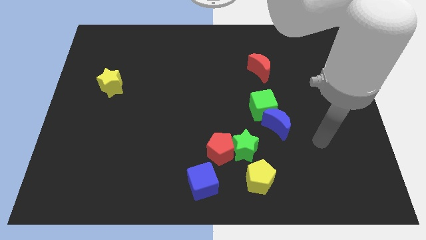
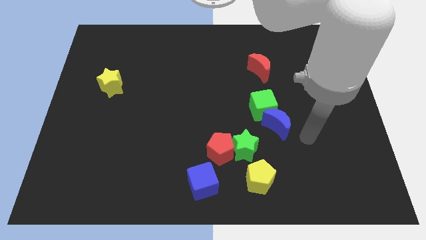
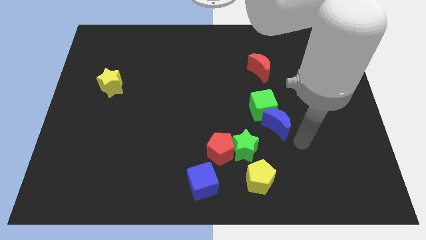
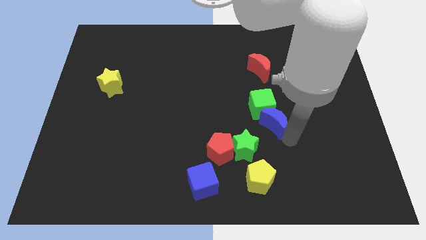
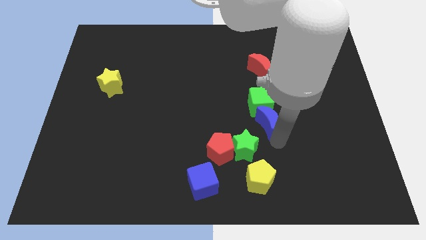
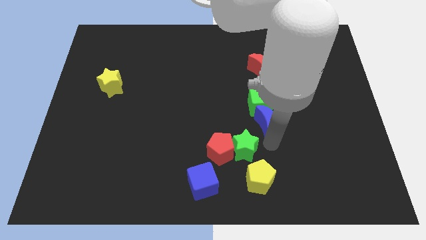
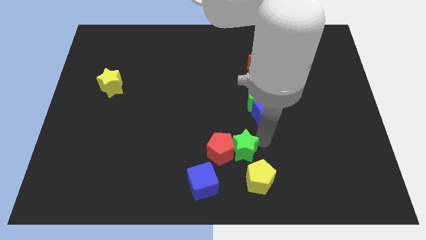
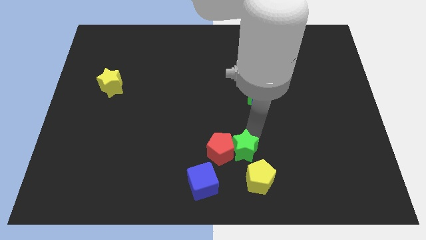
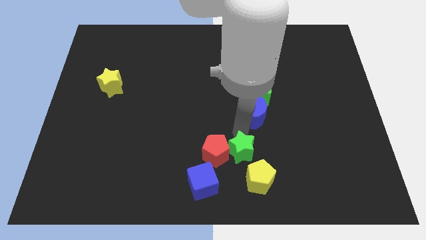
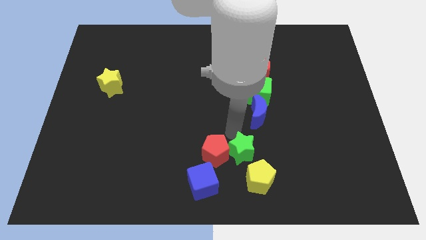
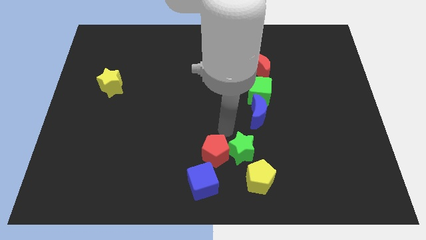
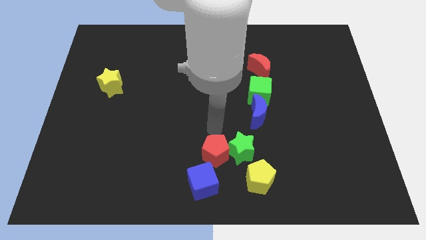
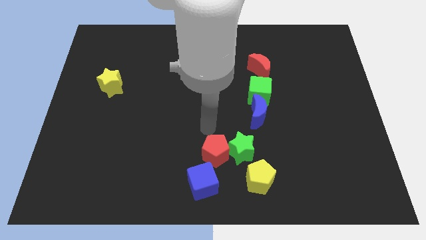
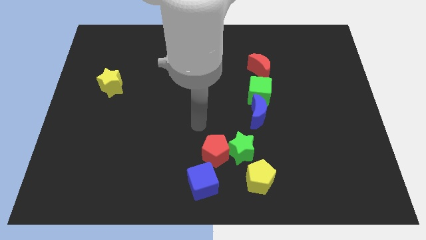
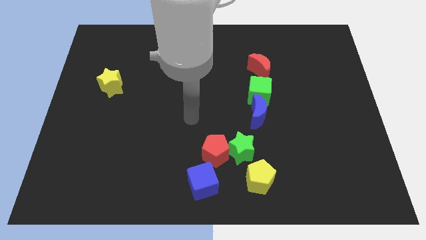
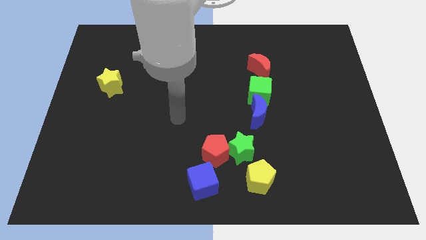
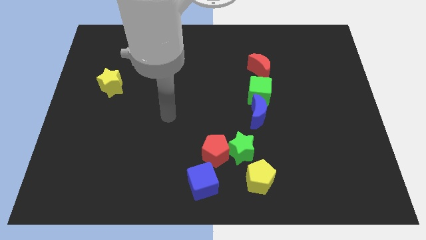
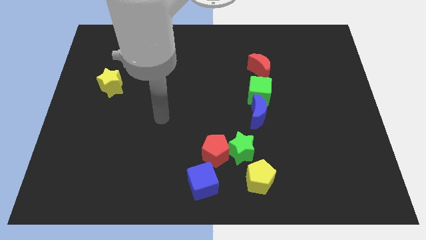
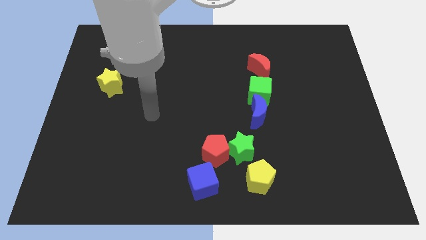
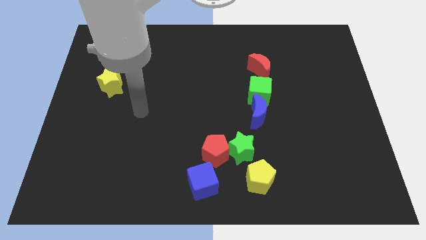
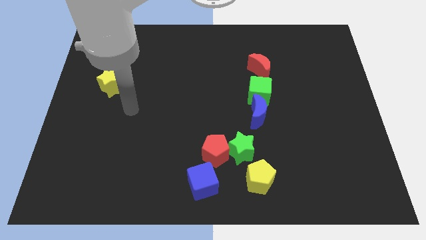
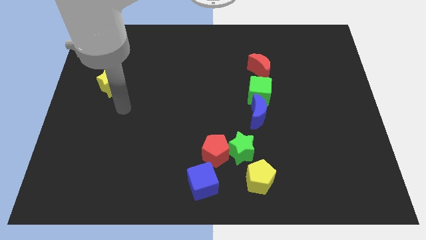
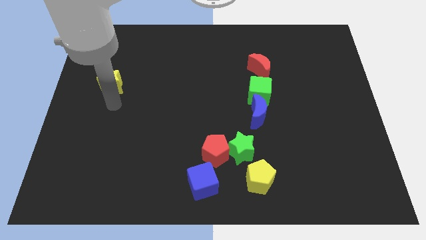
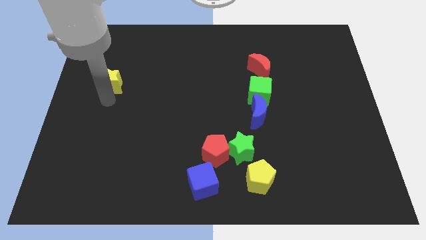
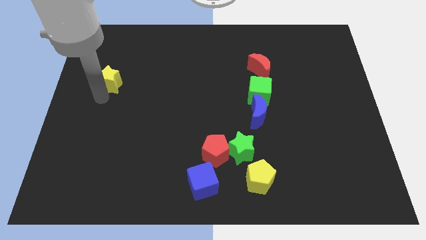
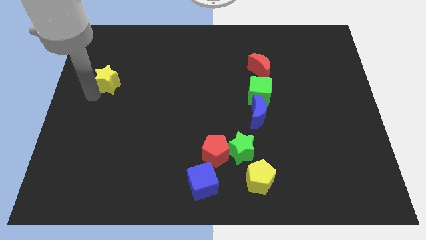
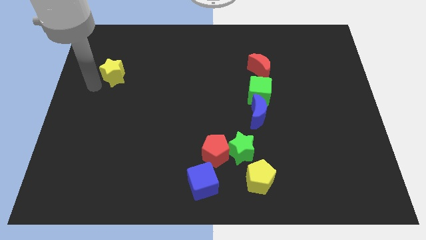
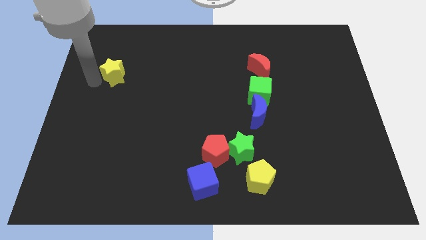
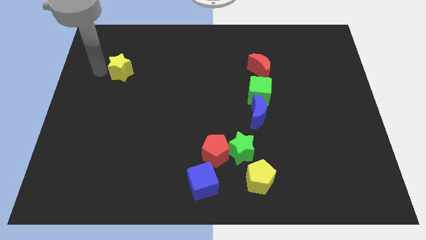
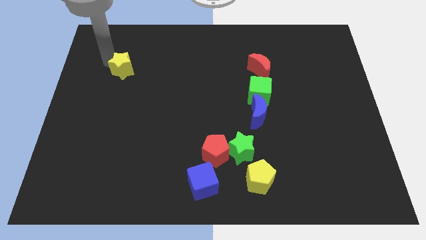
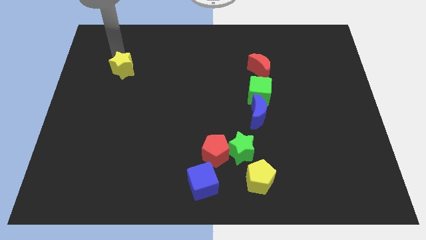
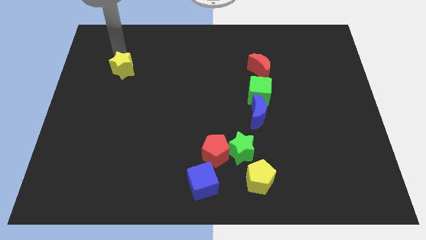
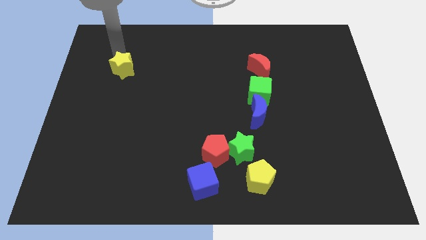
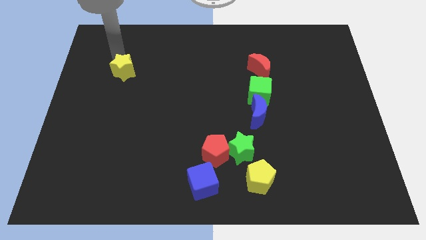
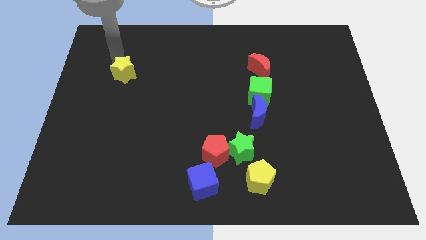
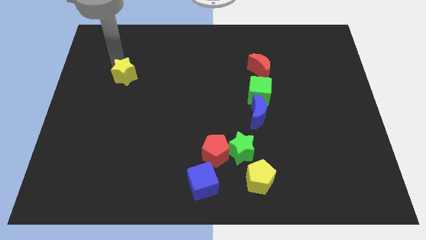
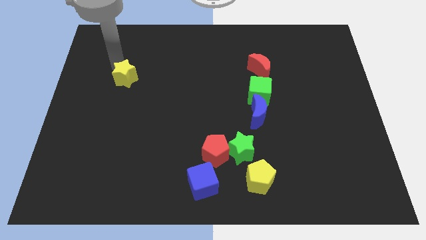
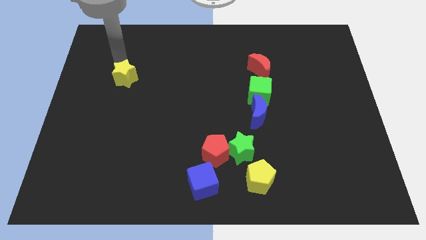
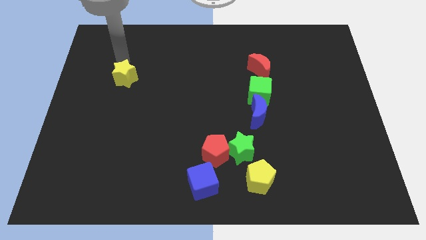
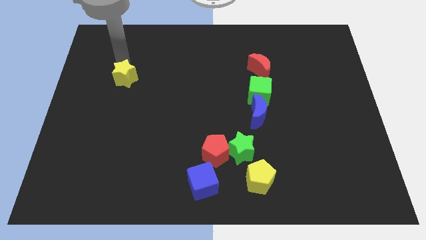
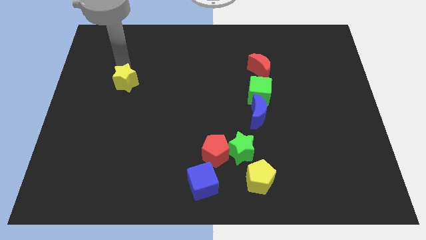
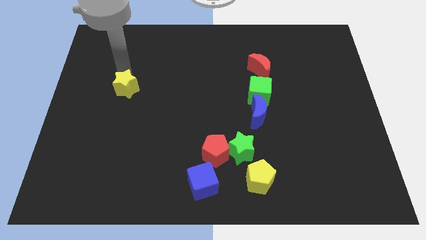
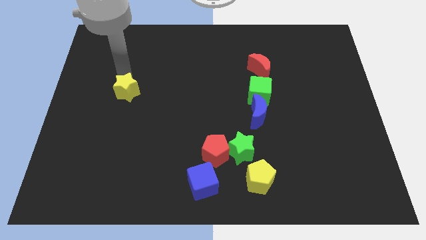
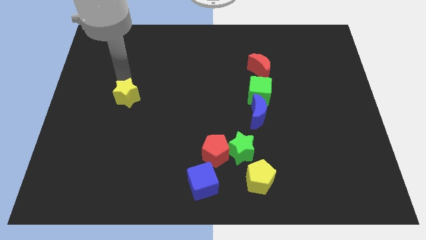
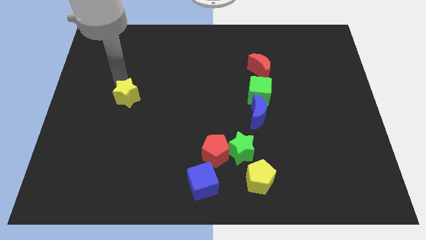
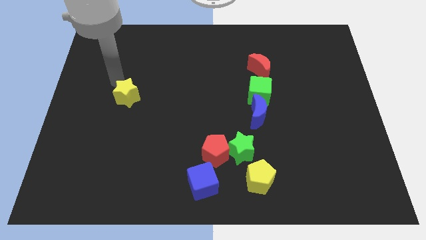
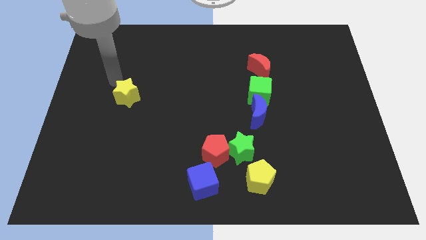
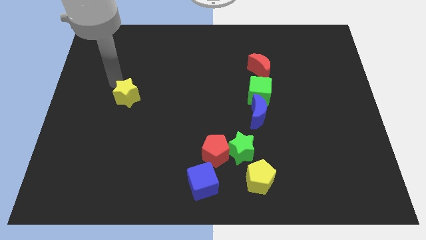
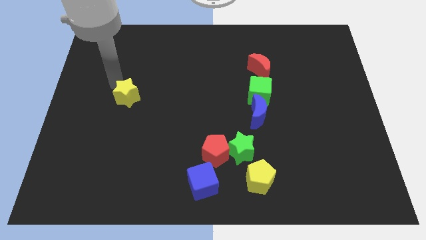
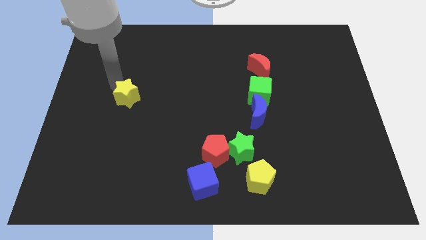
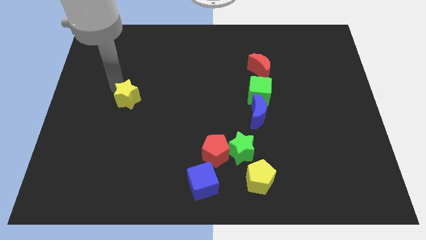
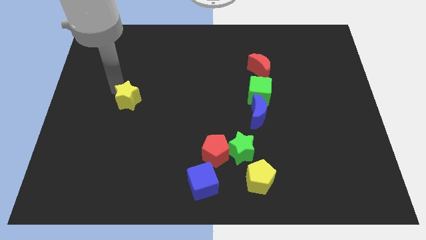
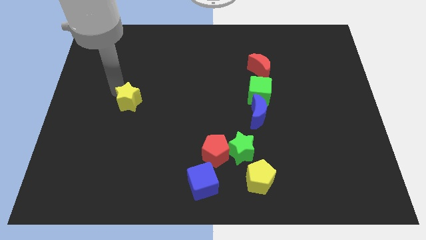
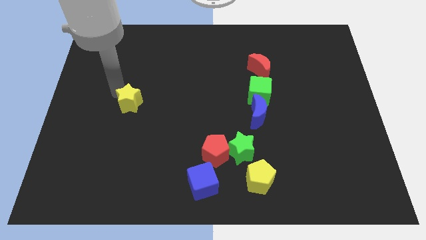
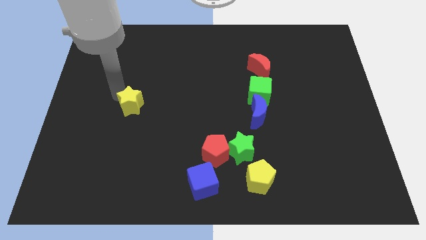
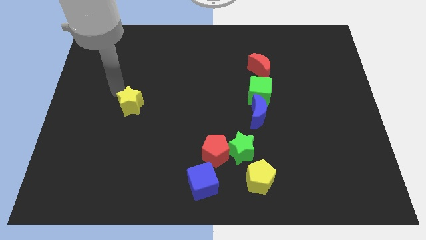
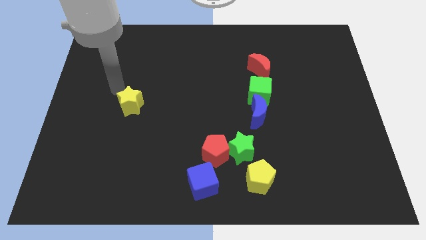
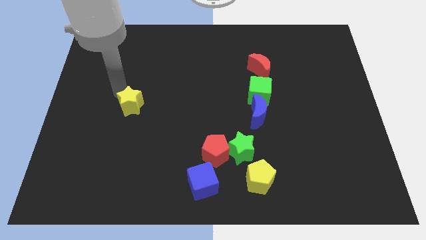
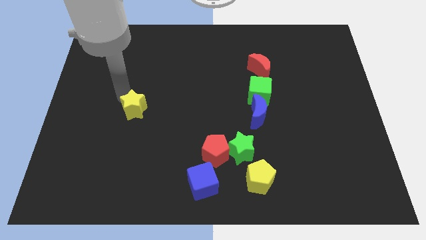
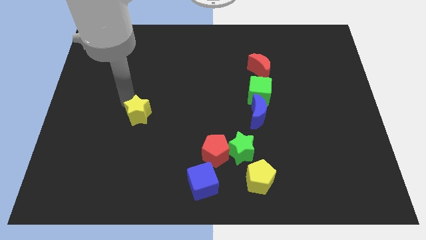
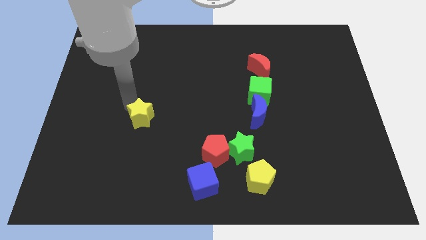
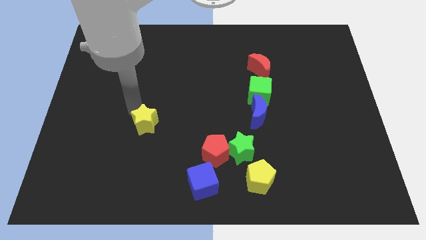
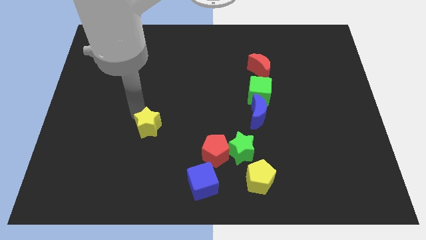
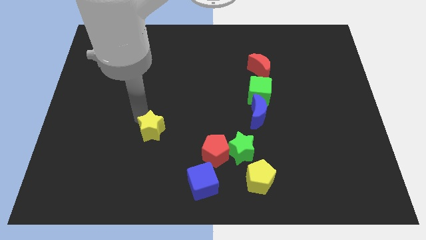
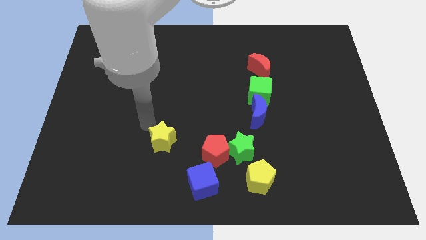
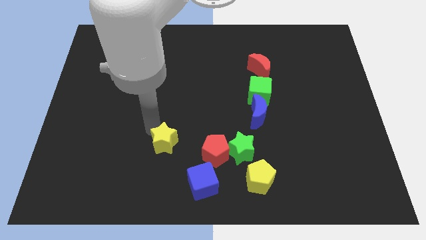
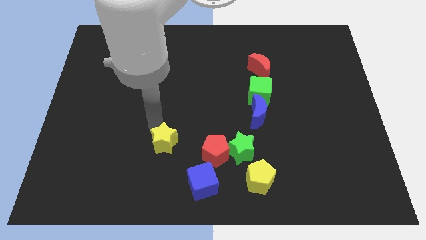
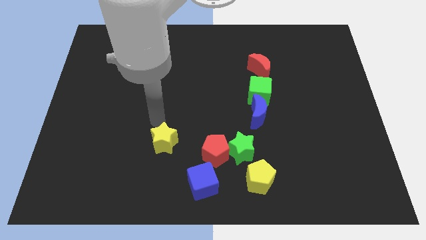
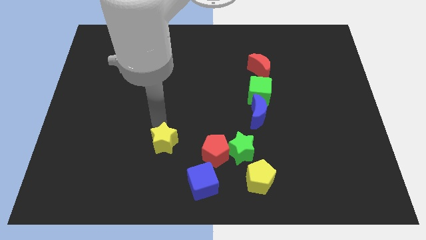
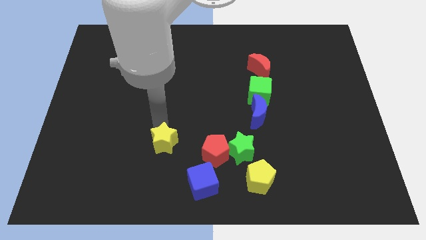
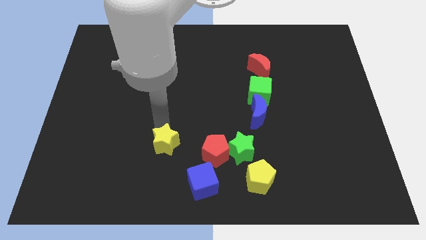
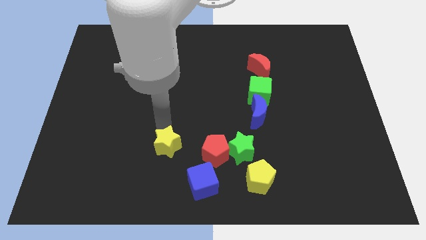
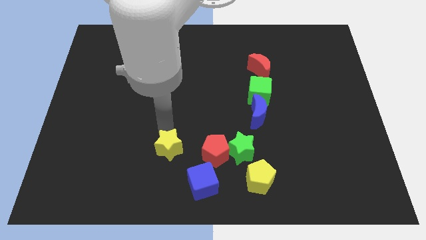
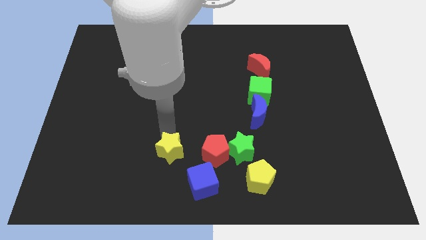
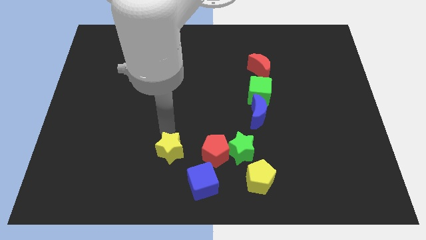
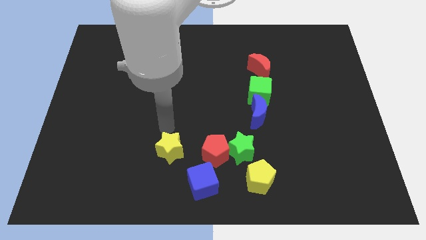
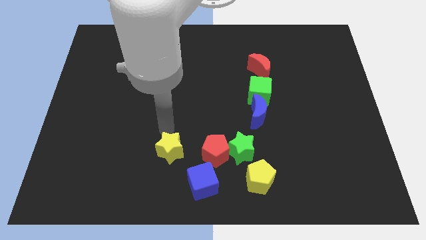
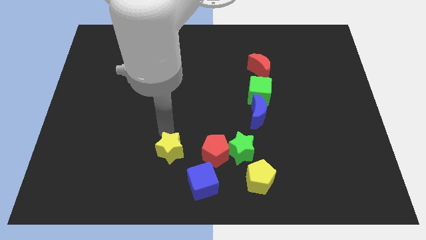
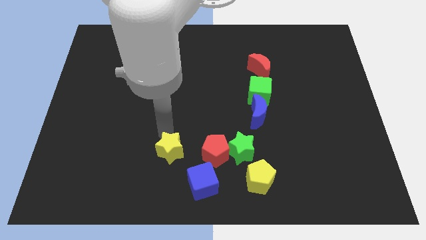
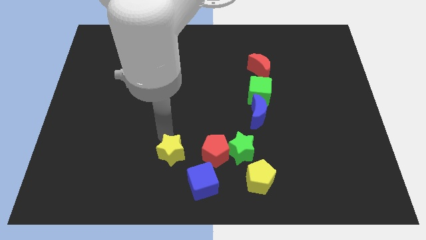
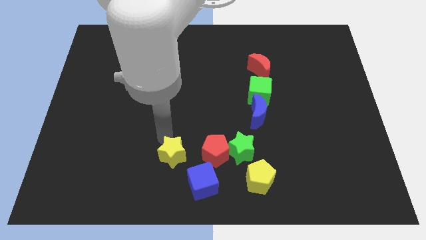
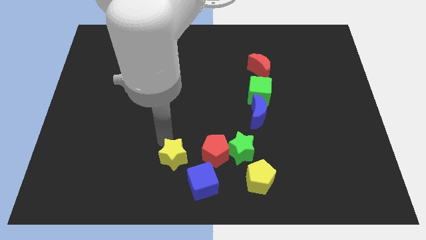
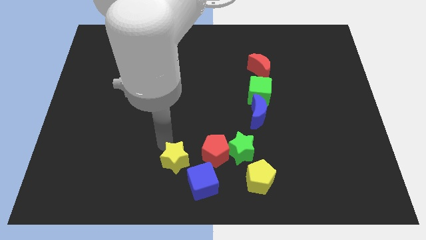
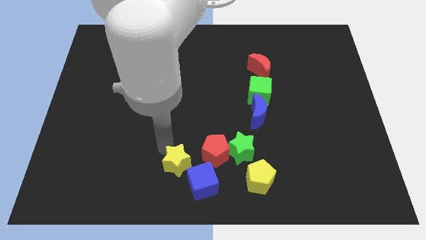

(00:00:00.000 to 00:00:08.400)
slide the yellow star to the bottom side
